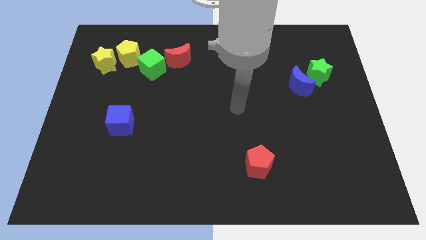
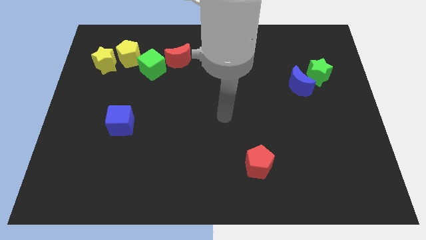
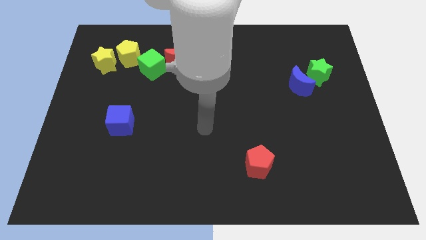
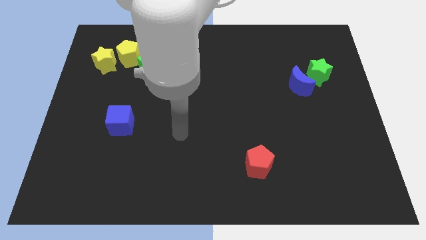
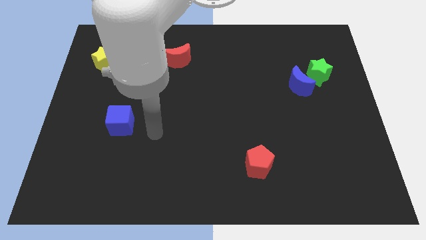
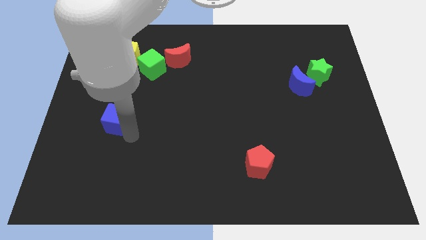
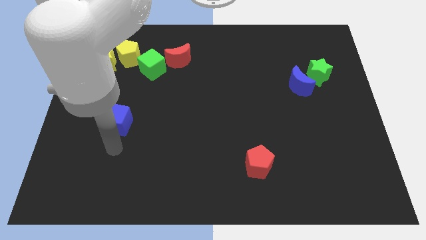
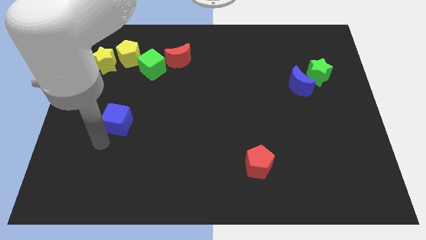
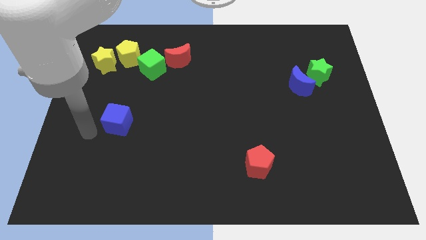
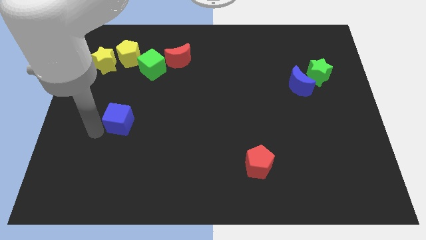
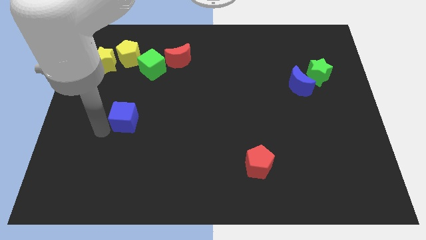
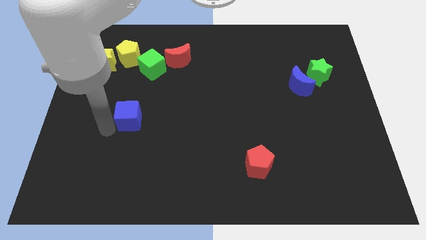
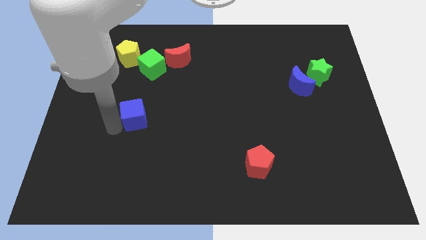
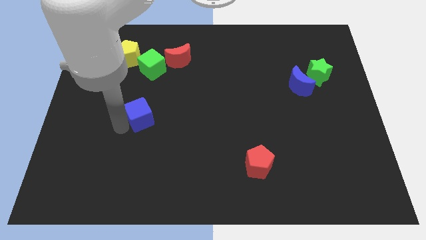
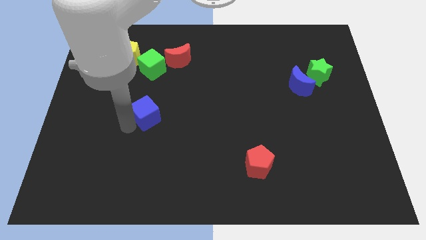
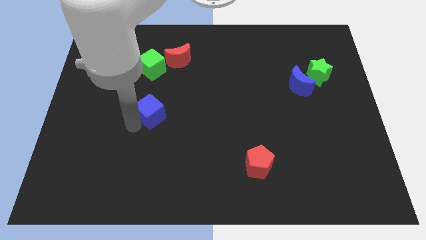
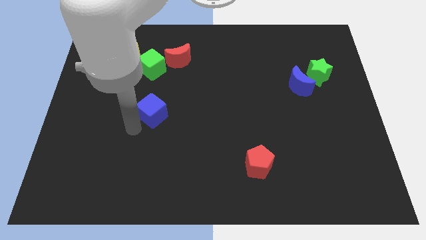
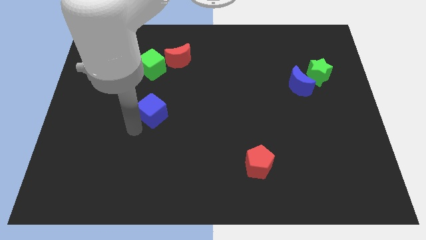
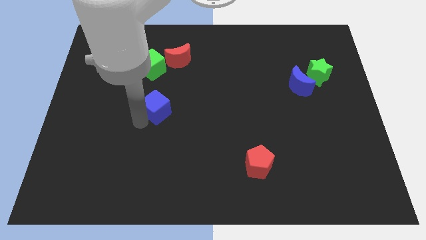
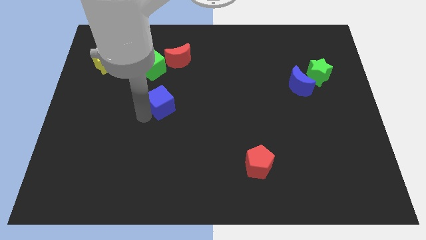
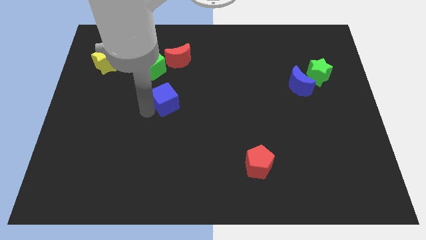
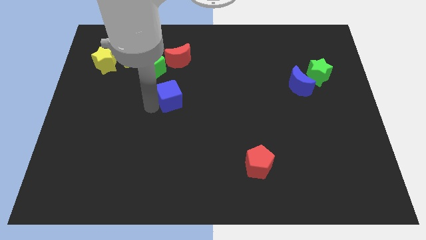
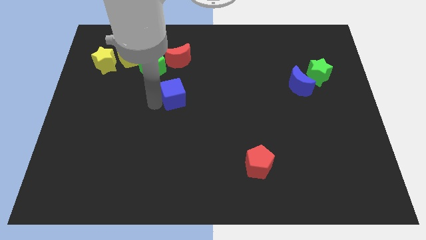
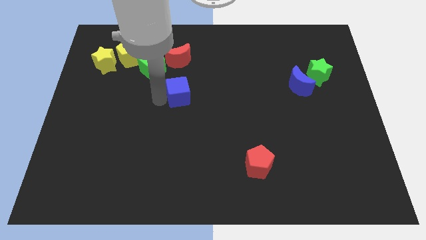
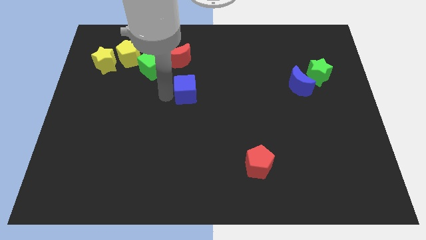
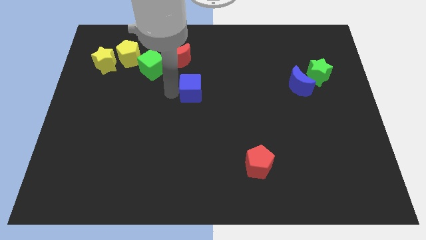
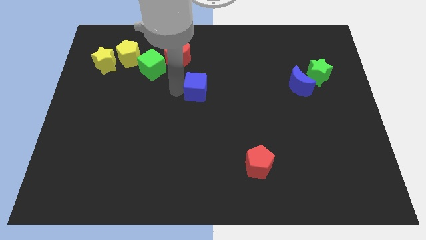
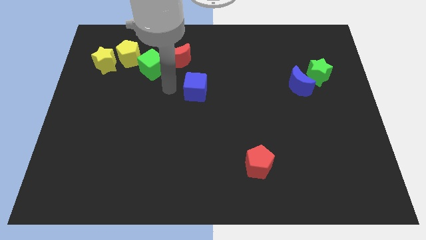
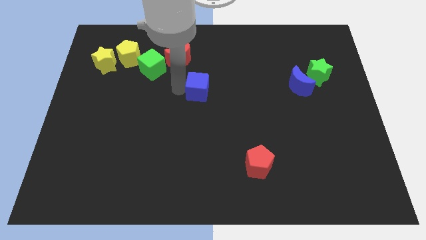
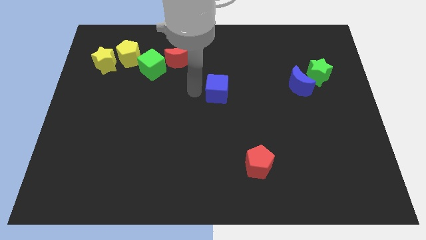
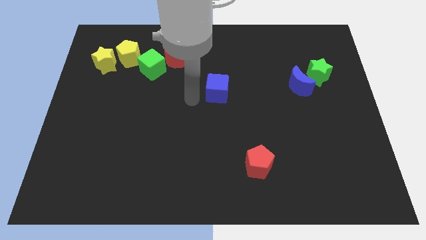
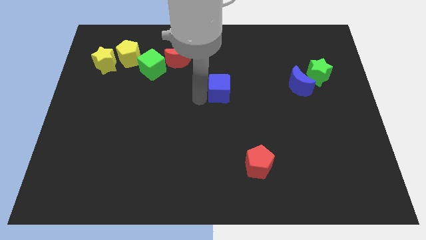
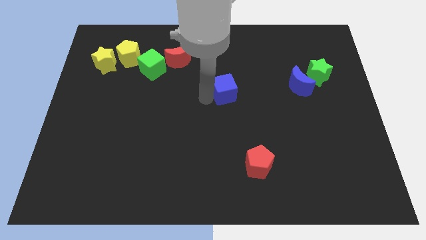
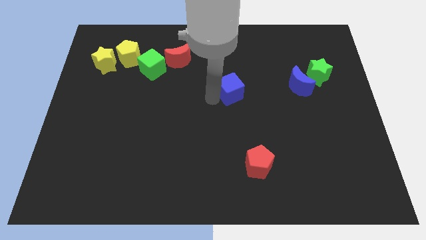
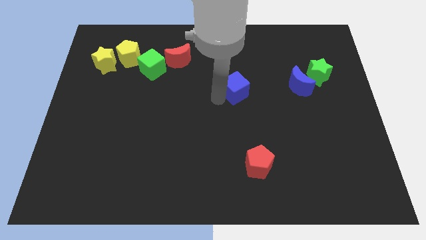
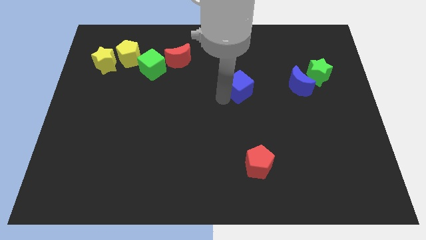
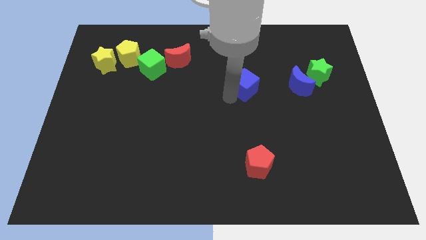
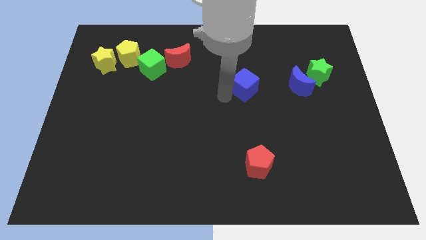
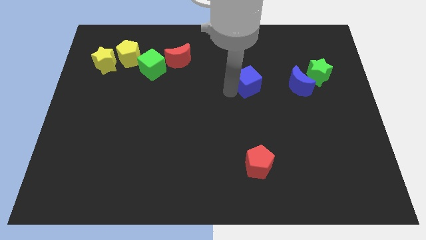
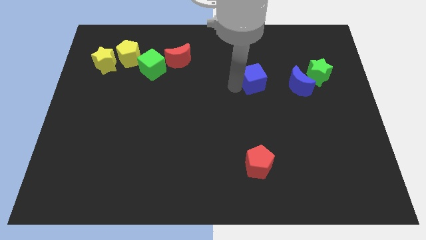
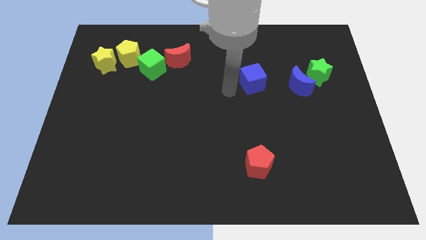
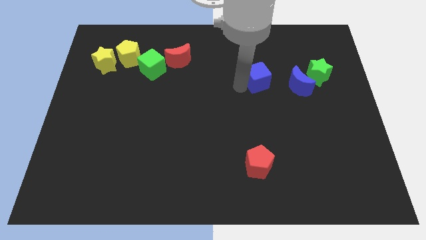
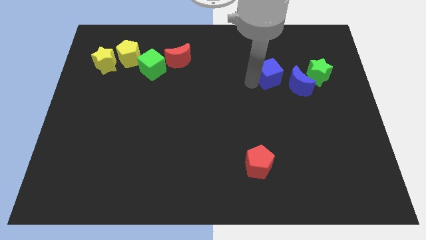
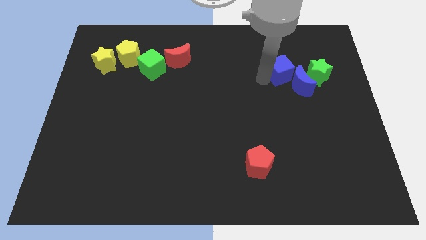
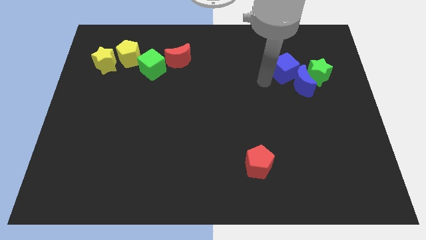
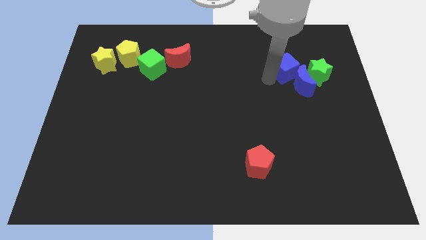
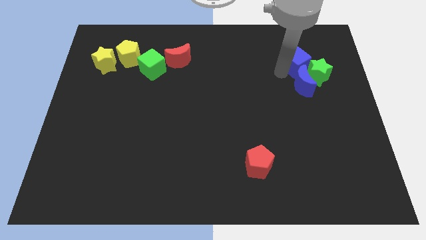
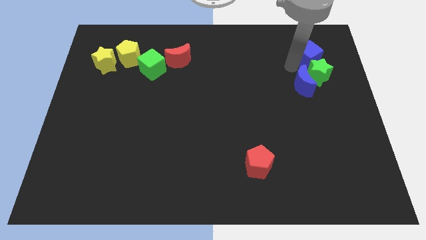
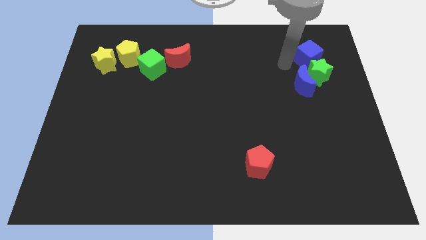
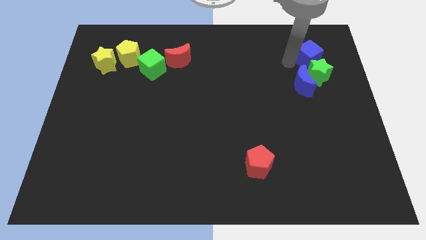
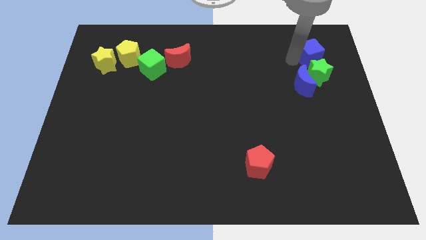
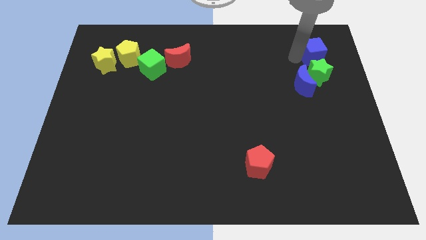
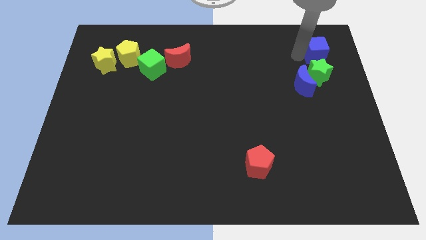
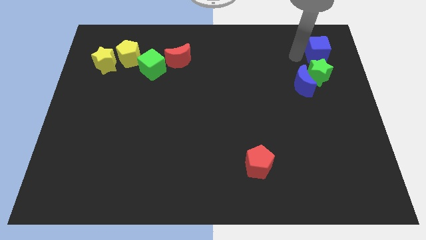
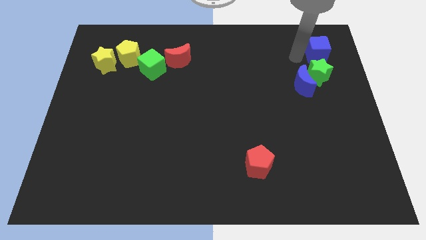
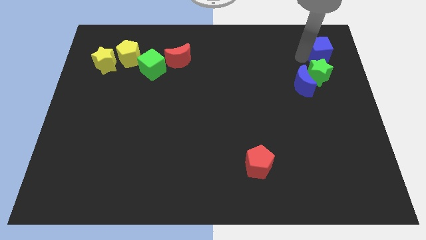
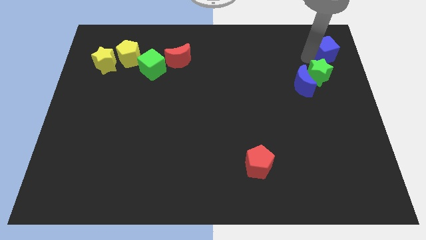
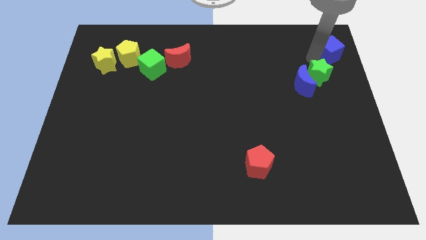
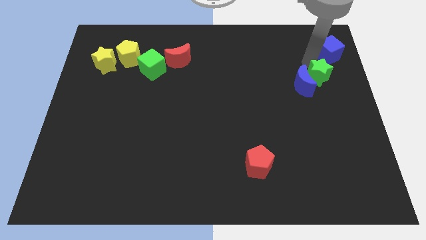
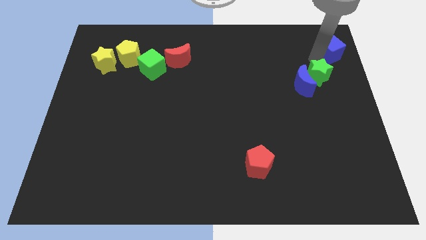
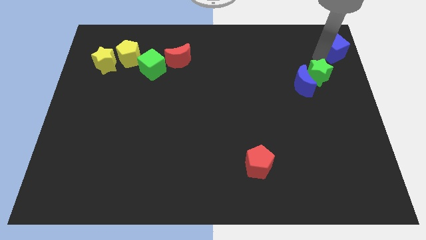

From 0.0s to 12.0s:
slide the blue cube to the top right of the board
